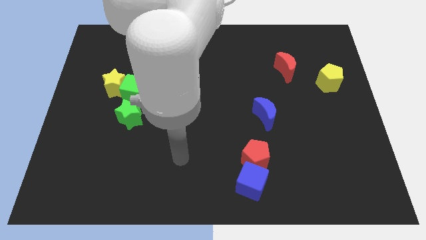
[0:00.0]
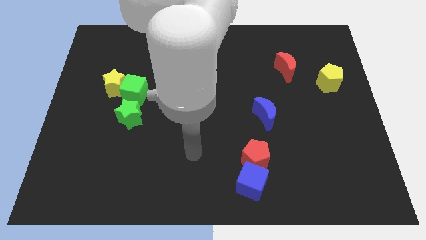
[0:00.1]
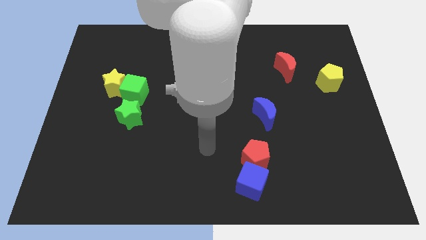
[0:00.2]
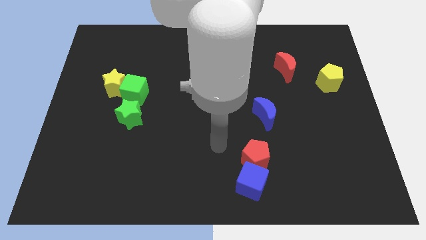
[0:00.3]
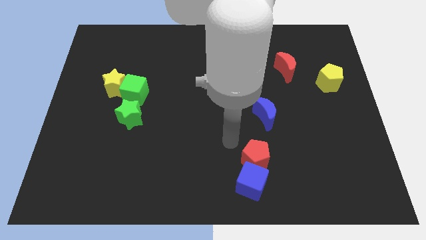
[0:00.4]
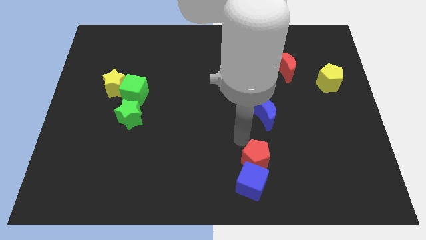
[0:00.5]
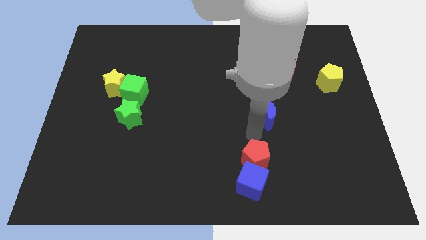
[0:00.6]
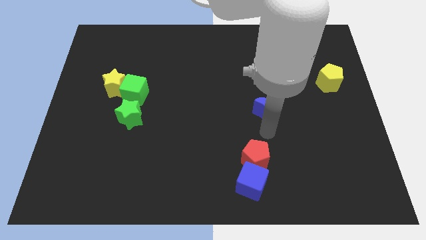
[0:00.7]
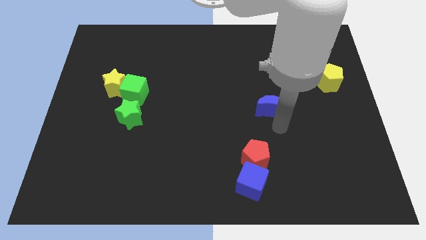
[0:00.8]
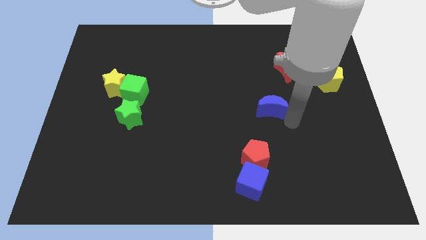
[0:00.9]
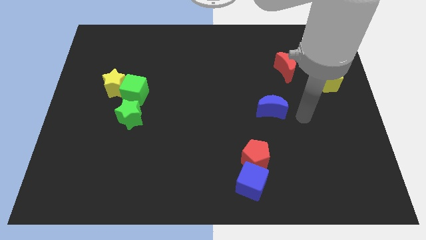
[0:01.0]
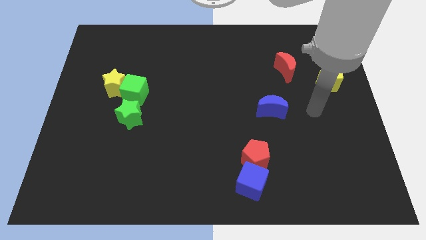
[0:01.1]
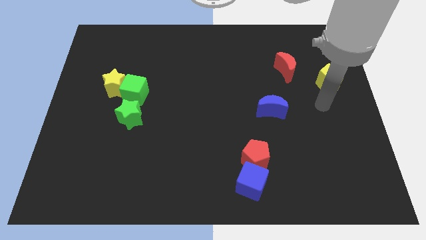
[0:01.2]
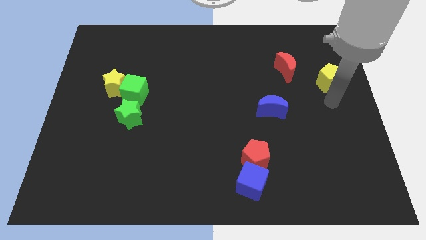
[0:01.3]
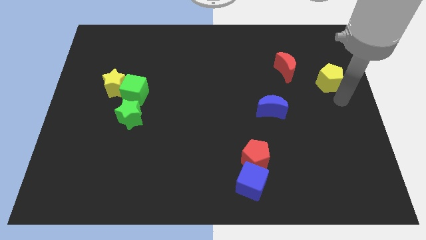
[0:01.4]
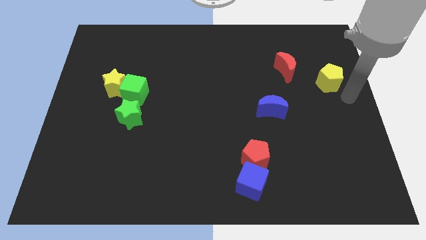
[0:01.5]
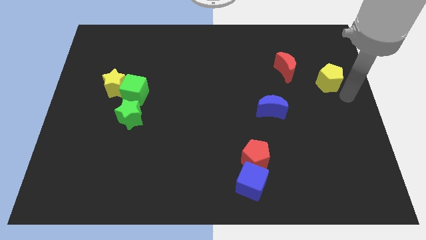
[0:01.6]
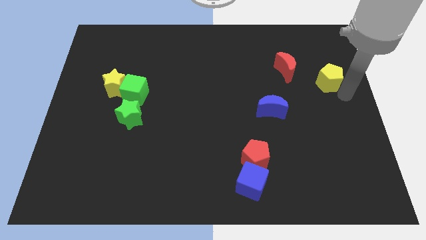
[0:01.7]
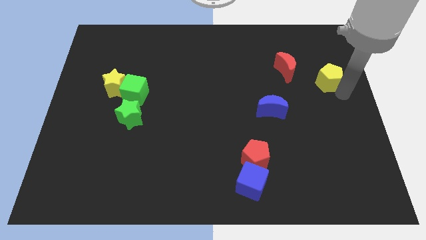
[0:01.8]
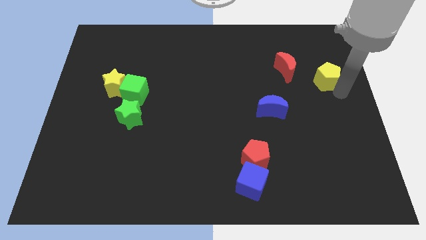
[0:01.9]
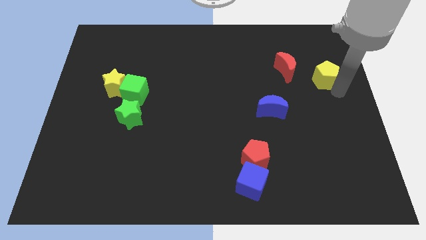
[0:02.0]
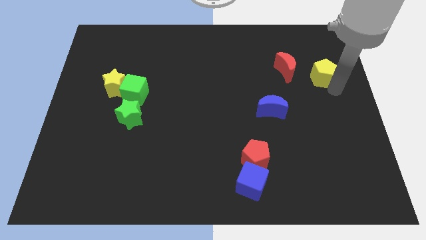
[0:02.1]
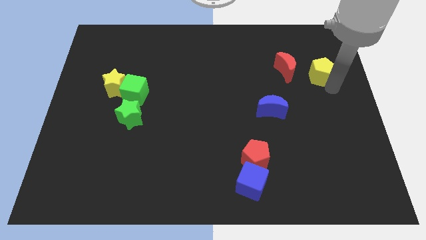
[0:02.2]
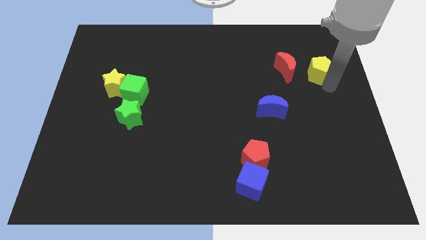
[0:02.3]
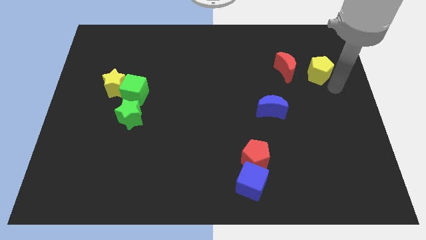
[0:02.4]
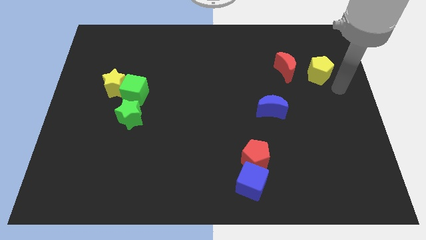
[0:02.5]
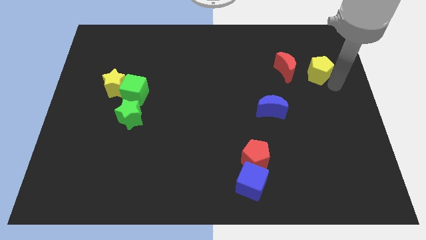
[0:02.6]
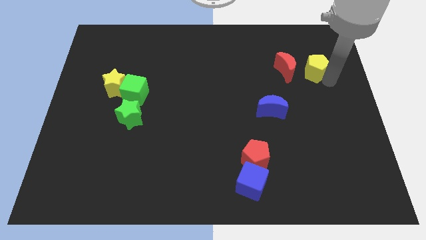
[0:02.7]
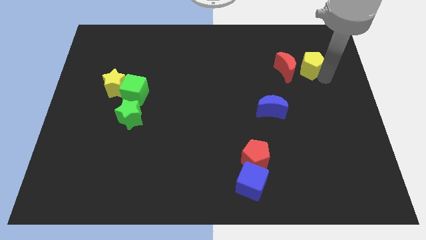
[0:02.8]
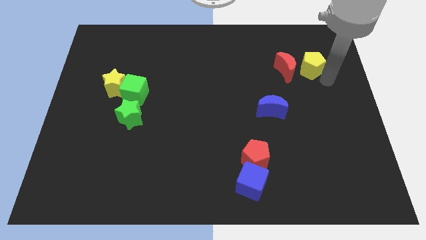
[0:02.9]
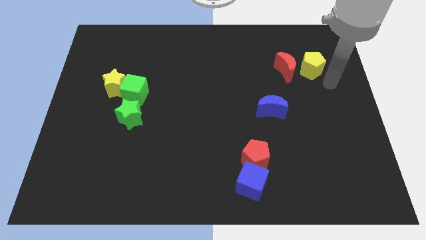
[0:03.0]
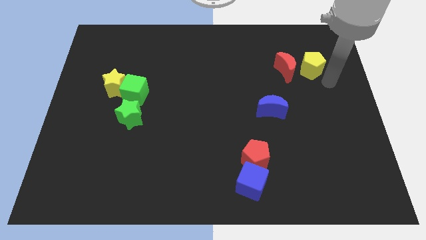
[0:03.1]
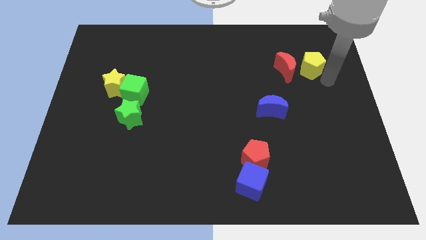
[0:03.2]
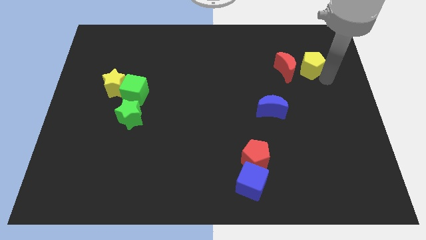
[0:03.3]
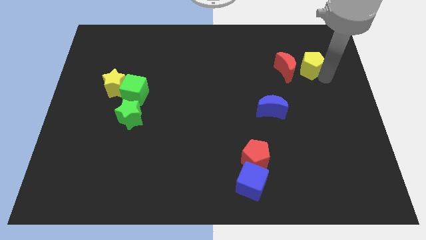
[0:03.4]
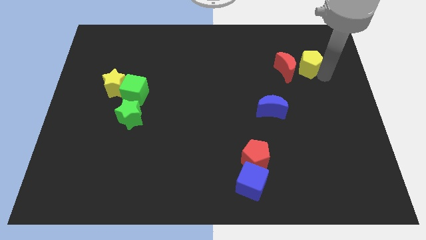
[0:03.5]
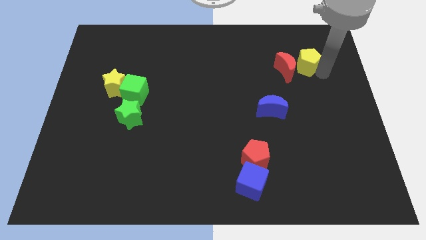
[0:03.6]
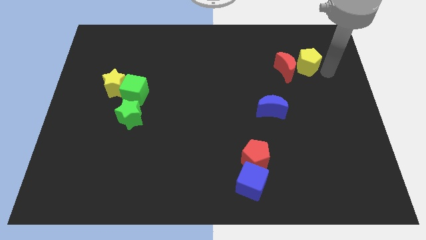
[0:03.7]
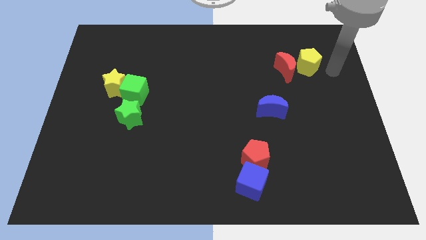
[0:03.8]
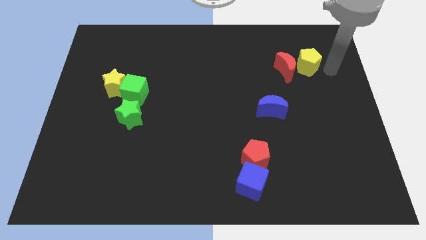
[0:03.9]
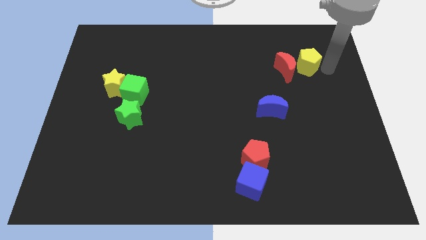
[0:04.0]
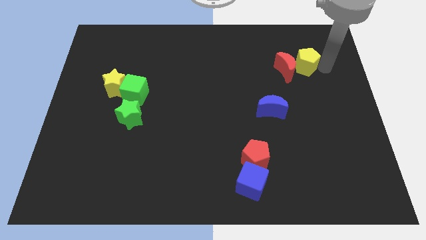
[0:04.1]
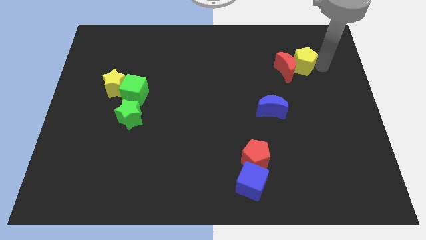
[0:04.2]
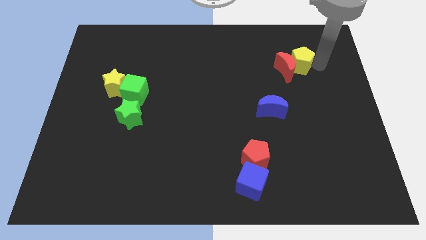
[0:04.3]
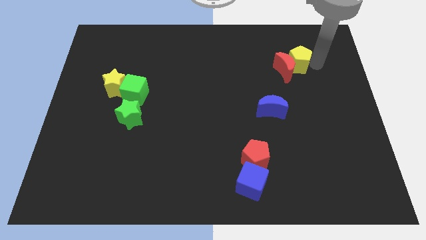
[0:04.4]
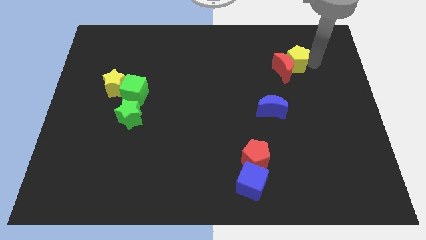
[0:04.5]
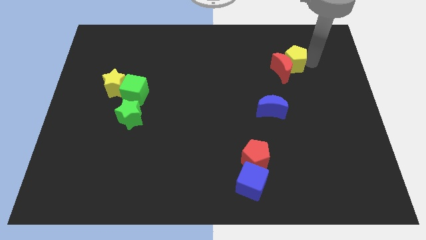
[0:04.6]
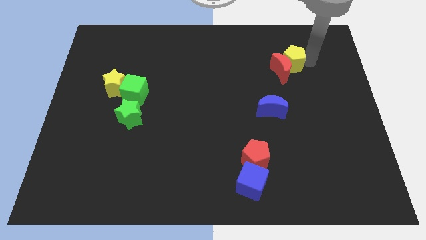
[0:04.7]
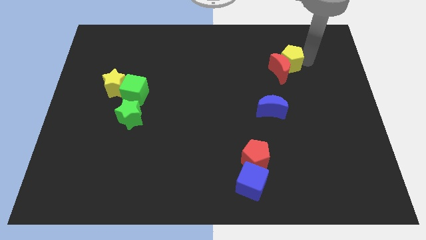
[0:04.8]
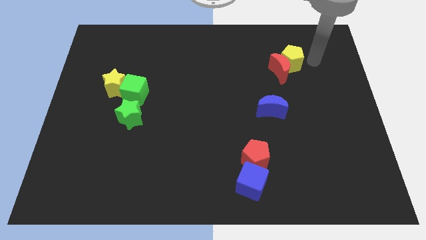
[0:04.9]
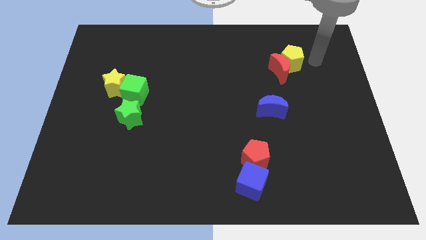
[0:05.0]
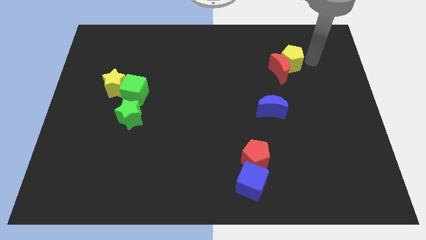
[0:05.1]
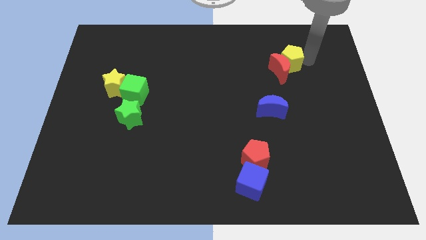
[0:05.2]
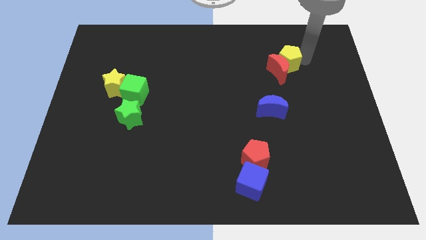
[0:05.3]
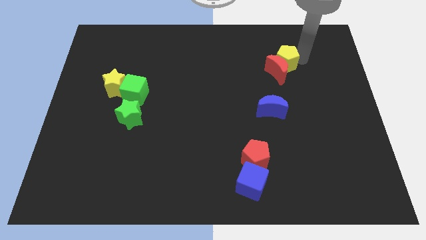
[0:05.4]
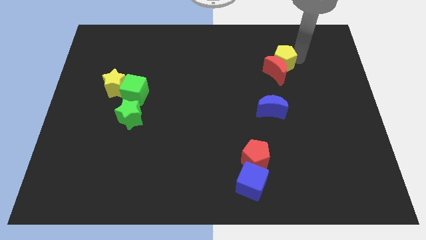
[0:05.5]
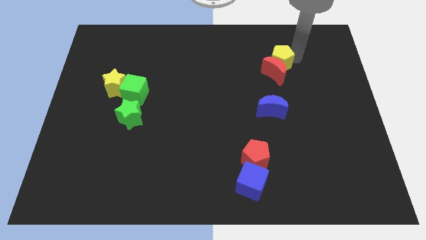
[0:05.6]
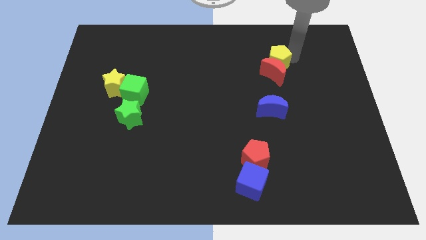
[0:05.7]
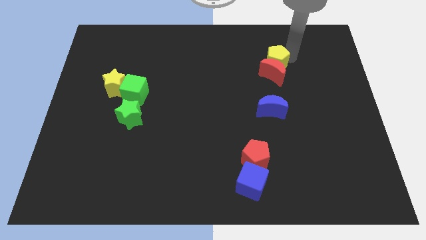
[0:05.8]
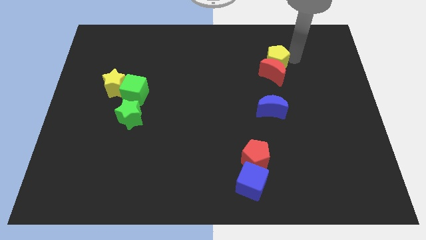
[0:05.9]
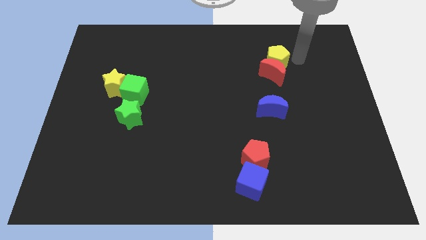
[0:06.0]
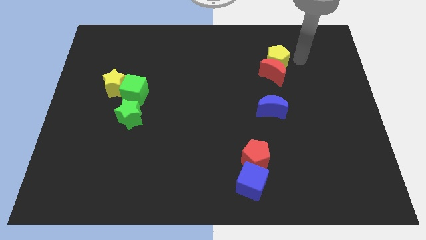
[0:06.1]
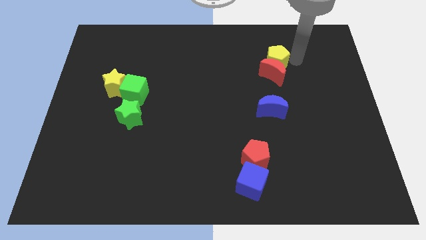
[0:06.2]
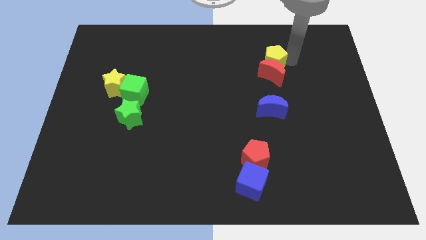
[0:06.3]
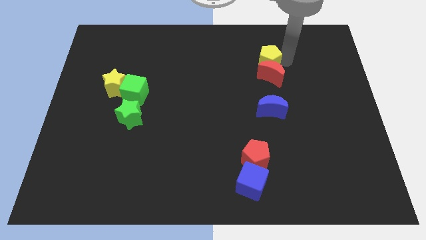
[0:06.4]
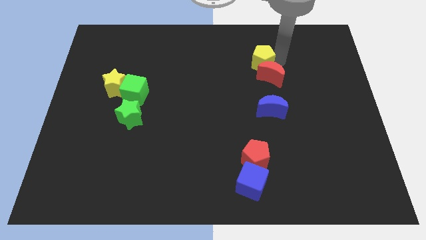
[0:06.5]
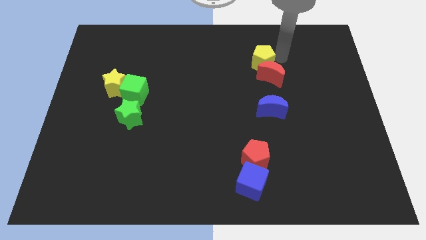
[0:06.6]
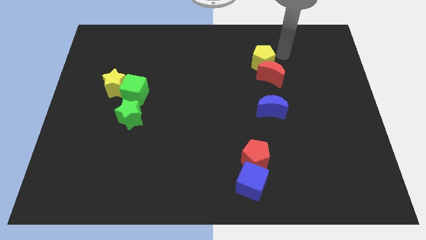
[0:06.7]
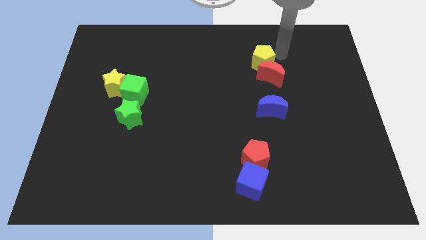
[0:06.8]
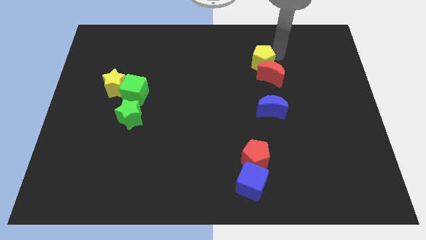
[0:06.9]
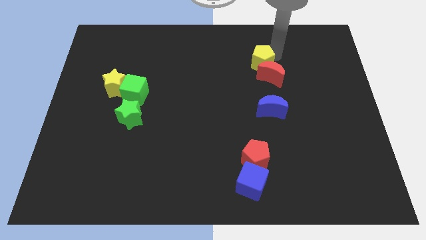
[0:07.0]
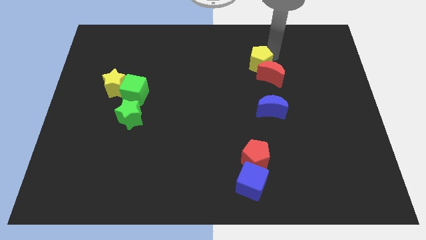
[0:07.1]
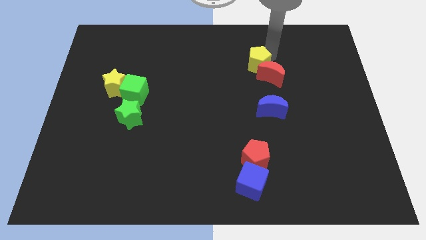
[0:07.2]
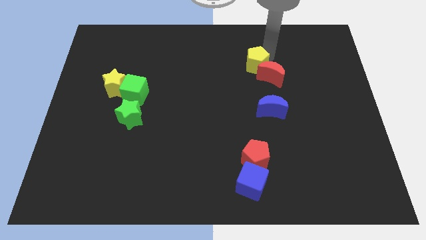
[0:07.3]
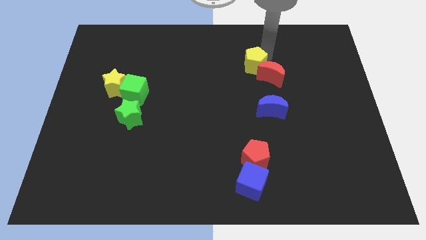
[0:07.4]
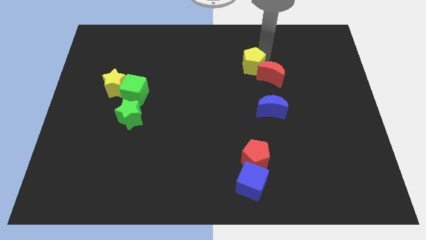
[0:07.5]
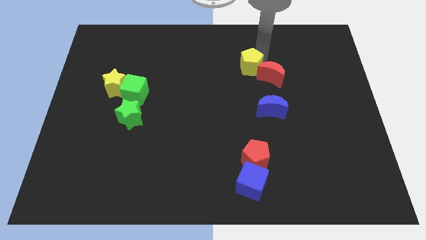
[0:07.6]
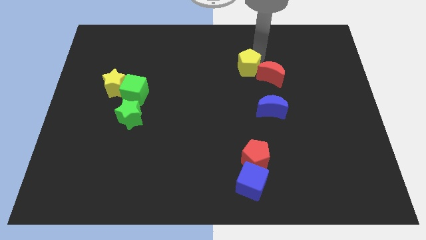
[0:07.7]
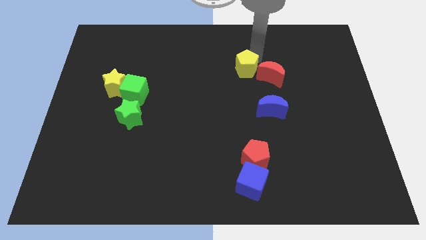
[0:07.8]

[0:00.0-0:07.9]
push the yellow pentagon to the left
